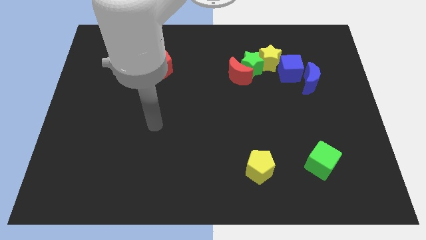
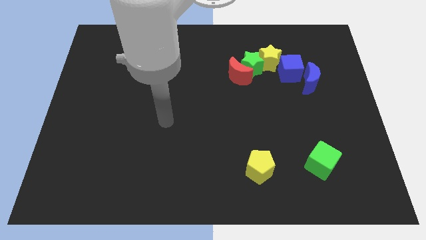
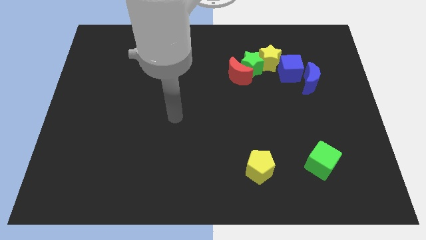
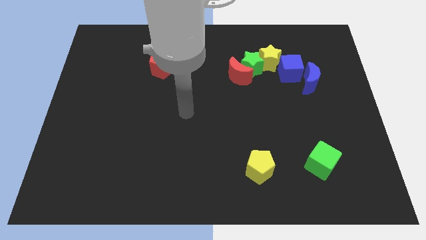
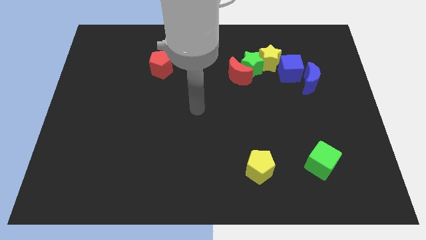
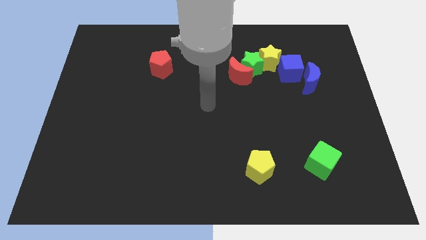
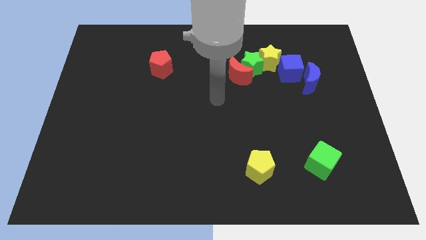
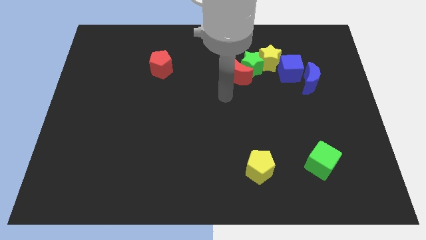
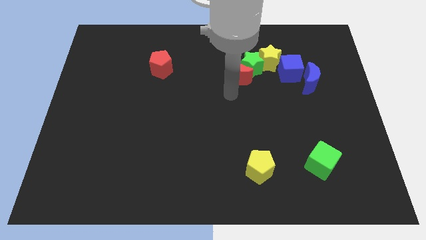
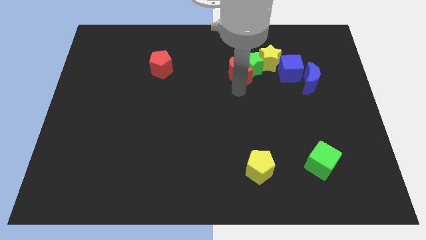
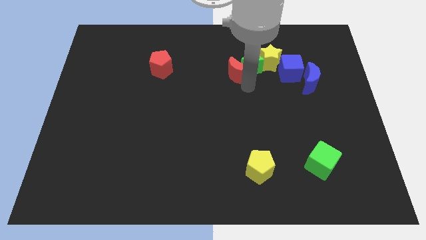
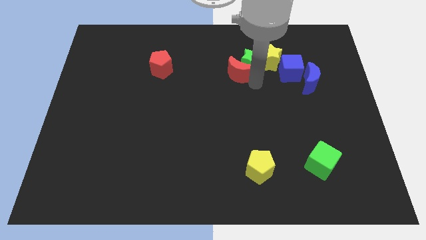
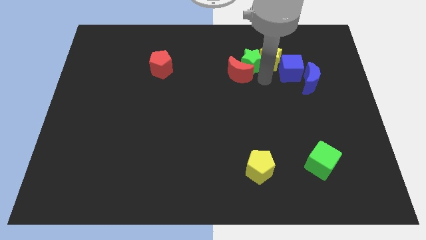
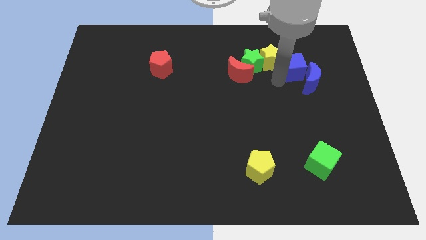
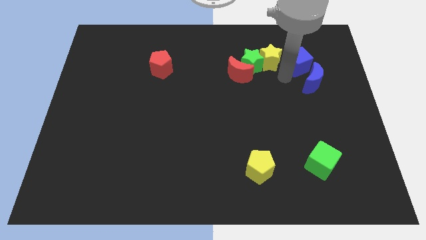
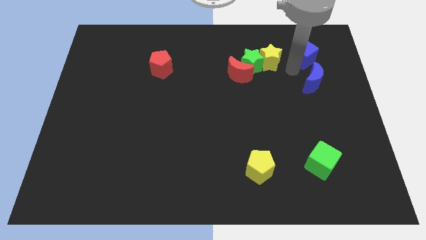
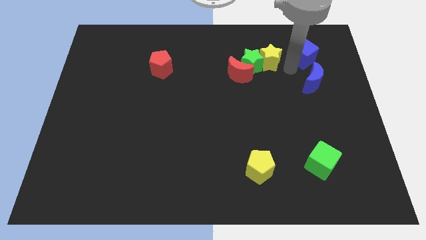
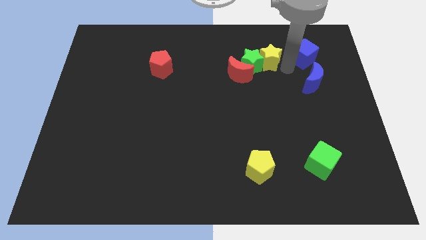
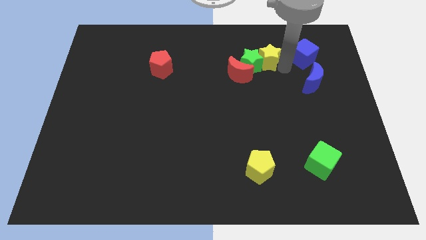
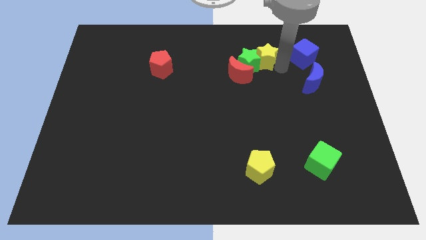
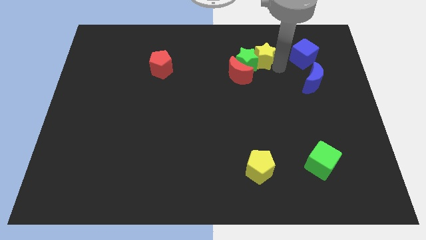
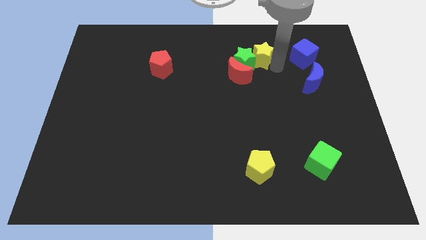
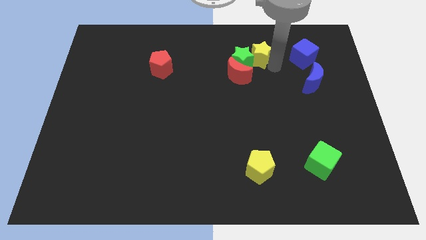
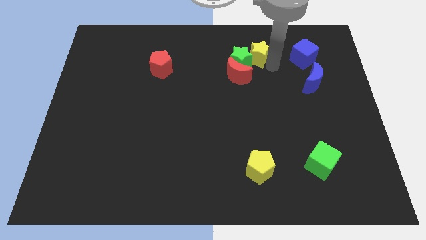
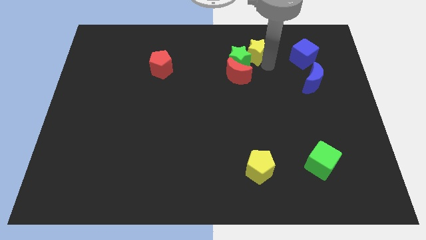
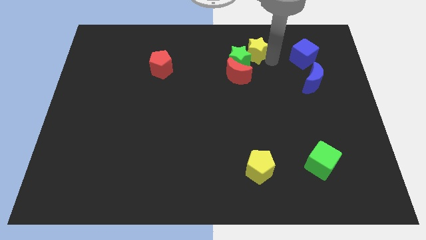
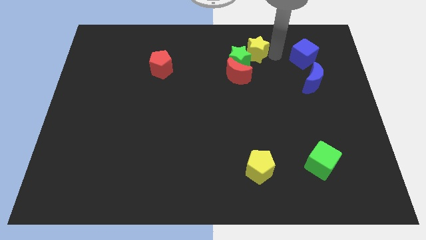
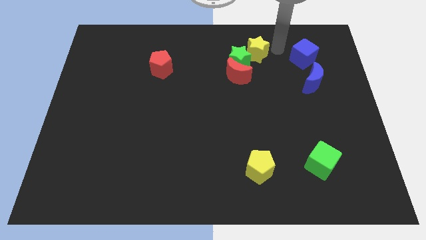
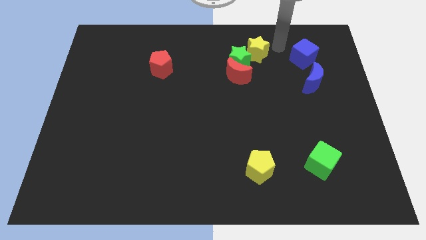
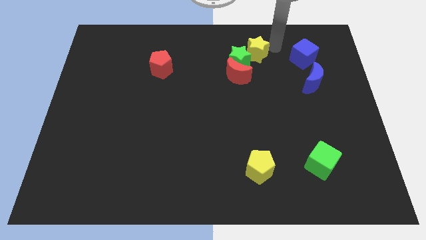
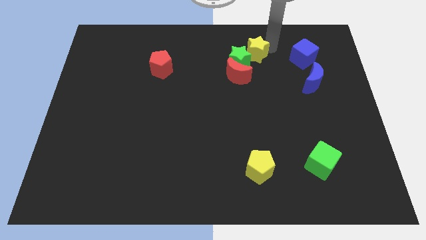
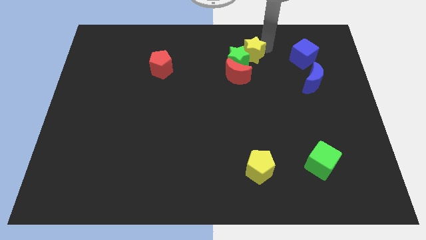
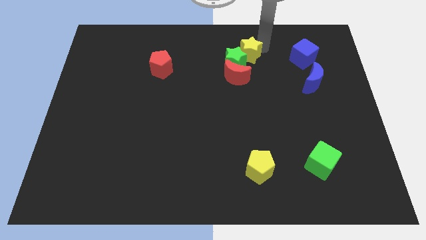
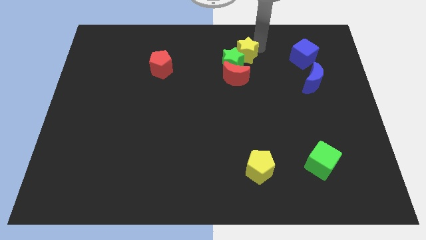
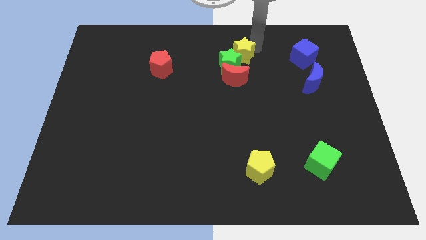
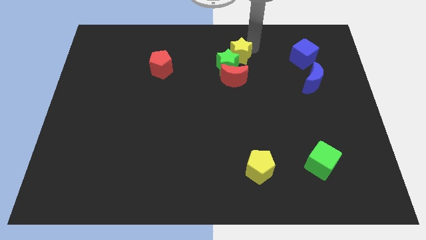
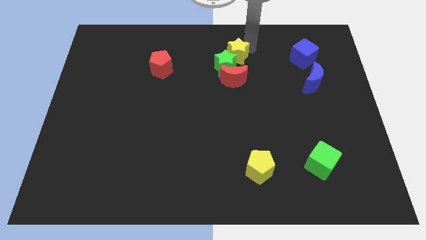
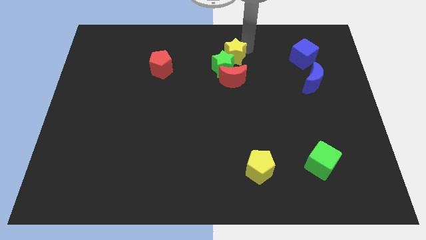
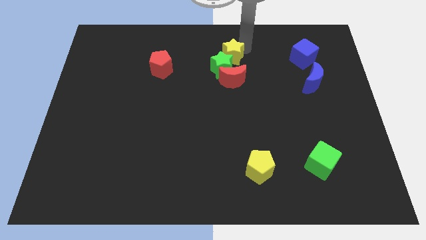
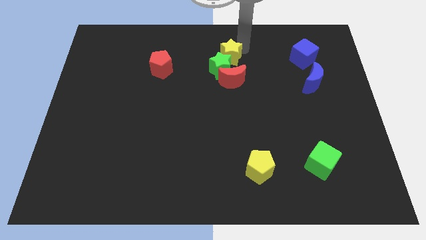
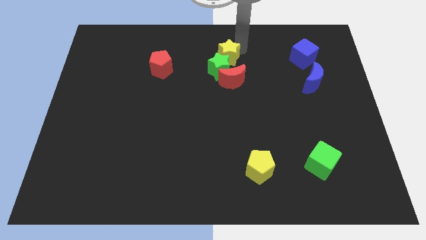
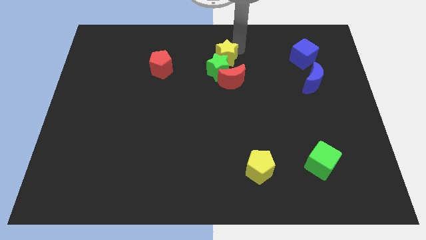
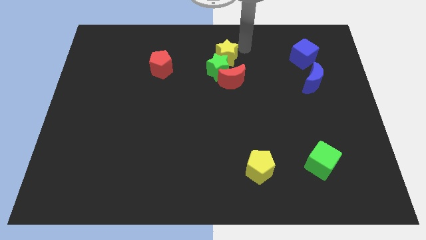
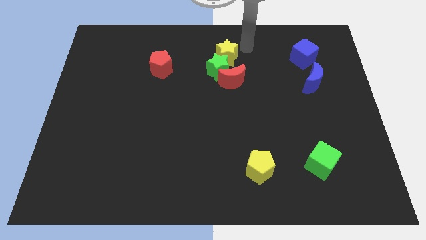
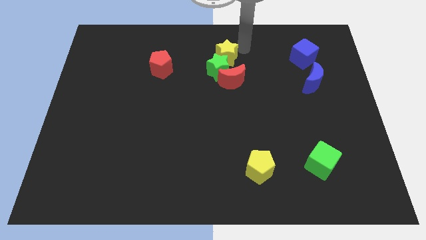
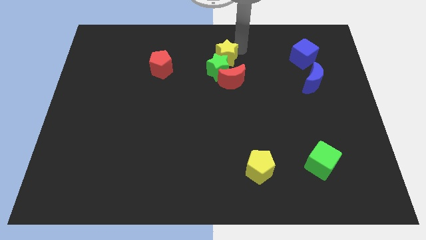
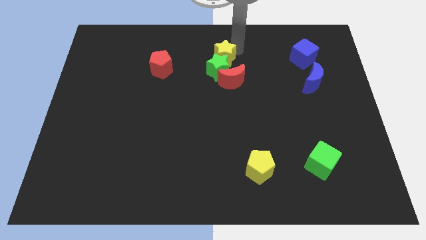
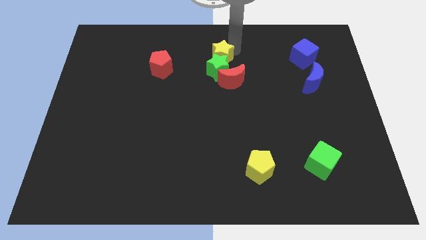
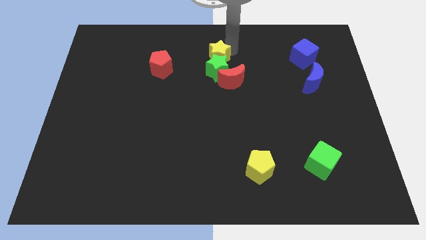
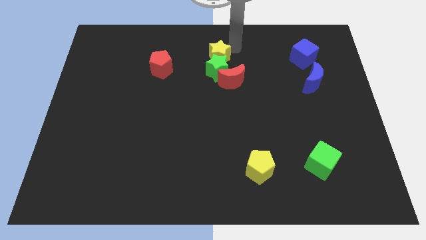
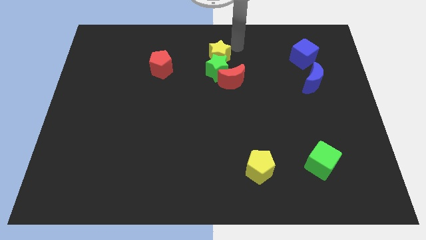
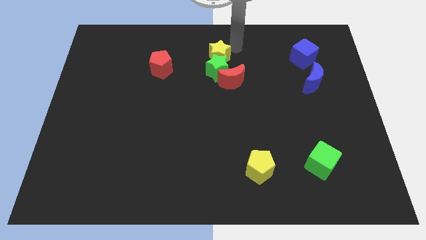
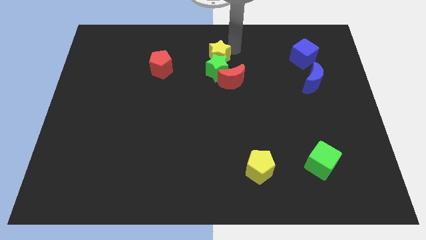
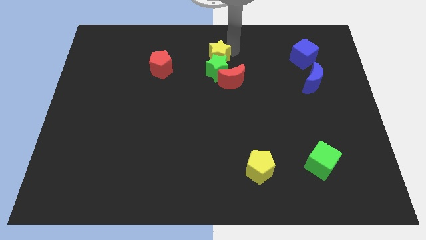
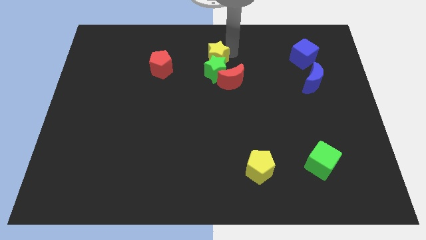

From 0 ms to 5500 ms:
put the yellow star to the right side of the red pentagon

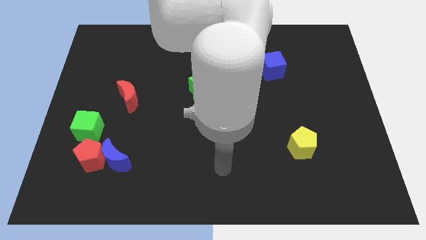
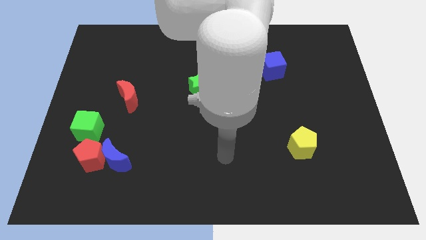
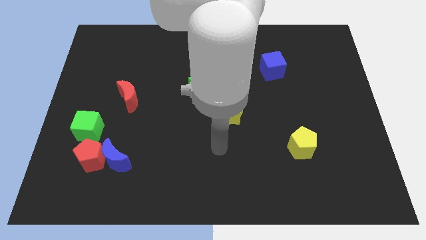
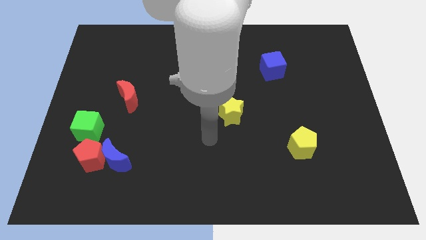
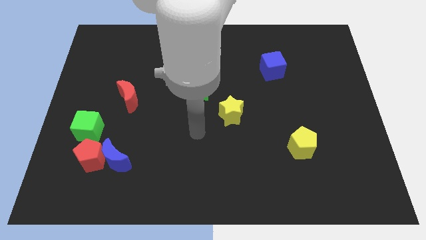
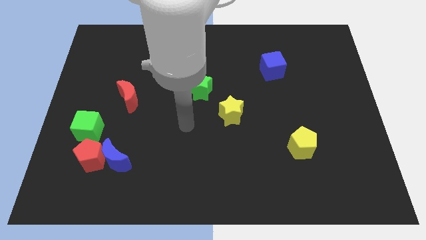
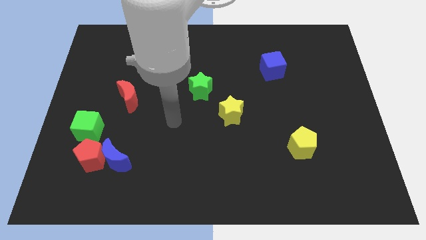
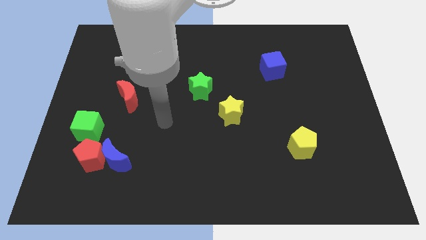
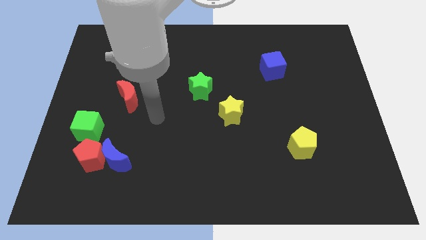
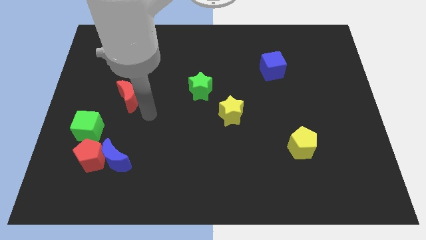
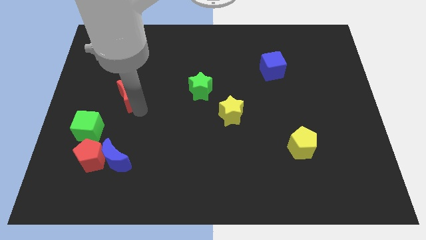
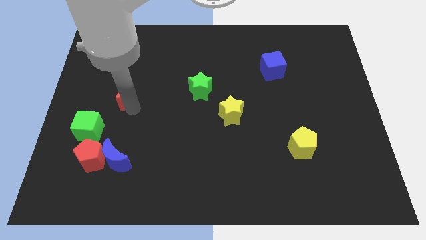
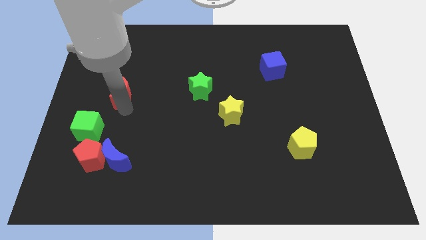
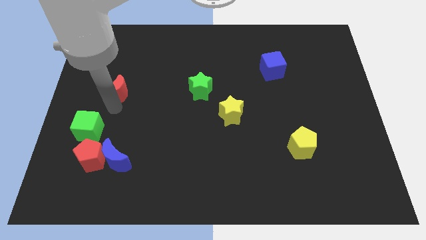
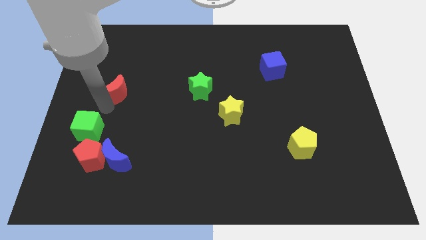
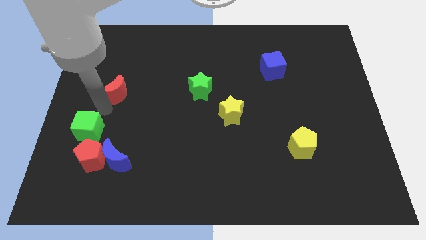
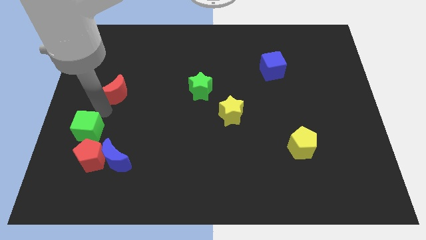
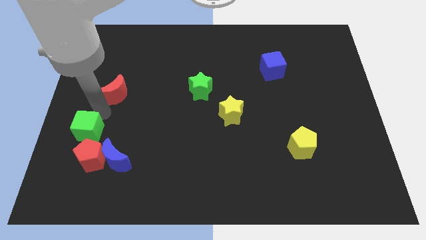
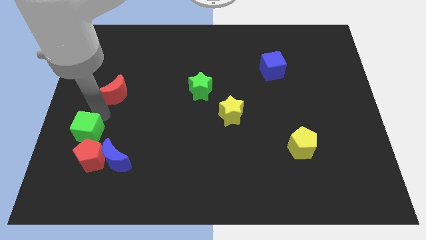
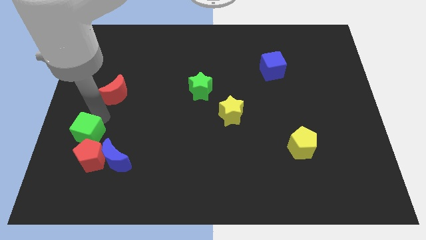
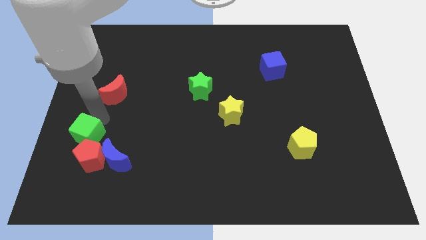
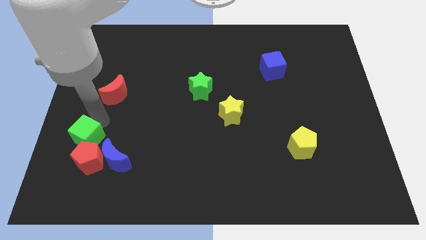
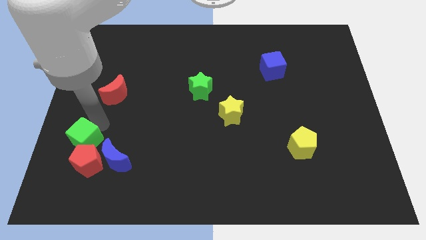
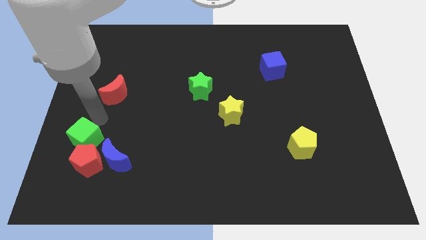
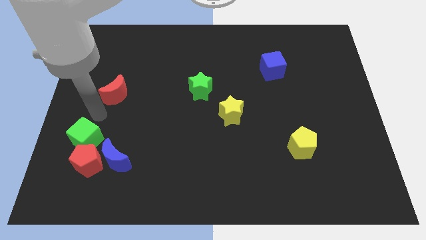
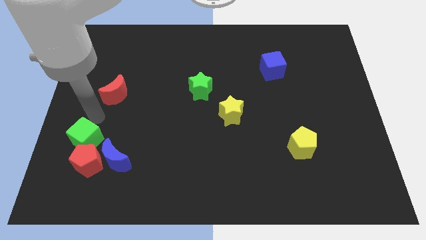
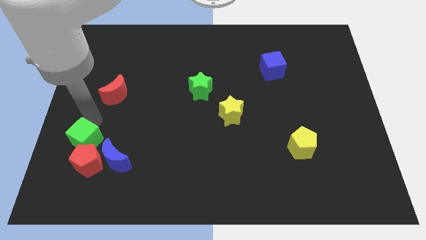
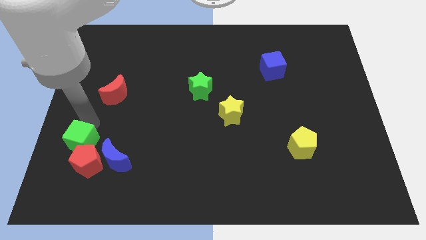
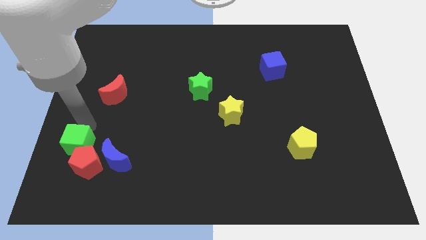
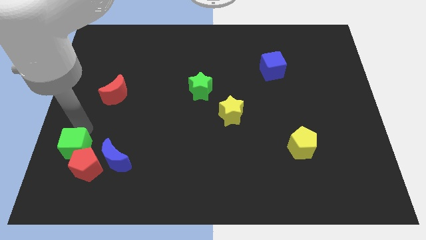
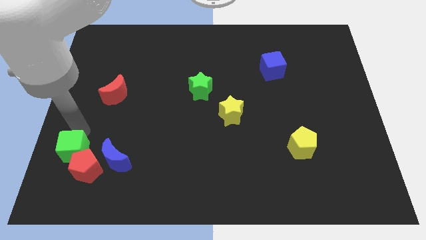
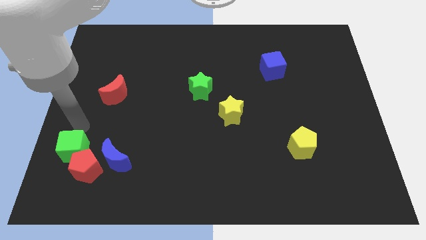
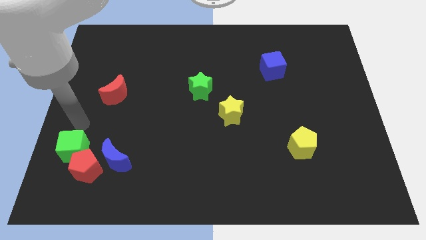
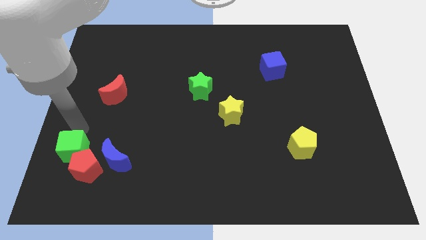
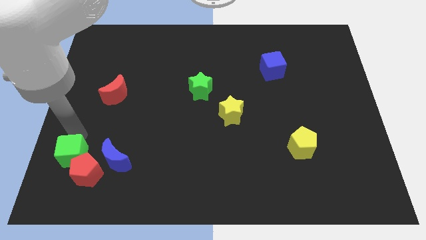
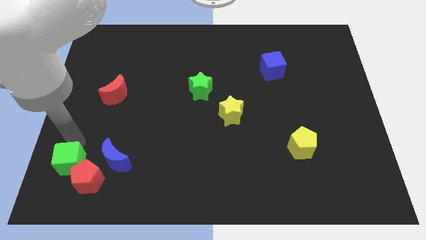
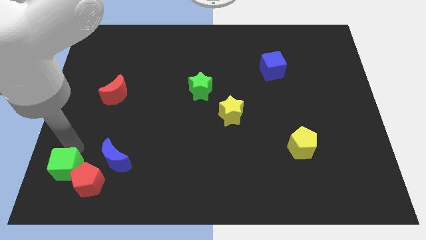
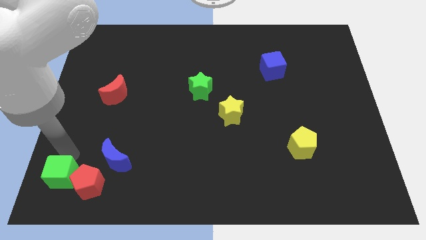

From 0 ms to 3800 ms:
push the green cube to the bottom left side of the blue moon
